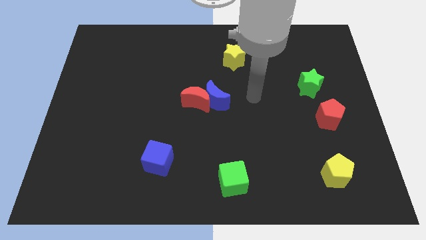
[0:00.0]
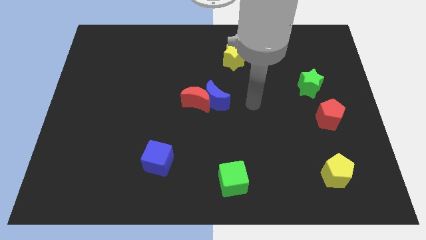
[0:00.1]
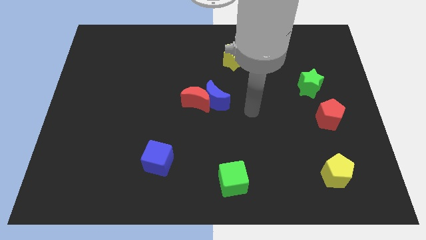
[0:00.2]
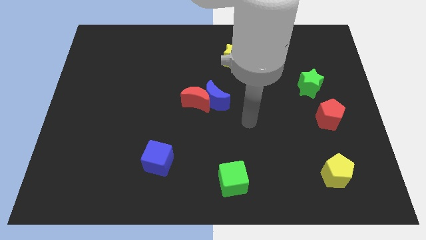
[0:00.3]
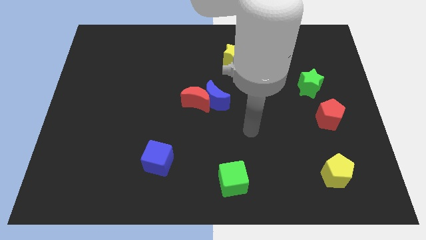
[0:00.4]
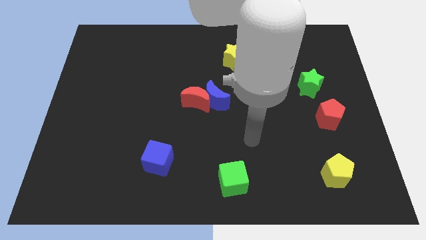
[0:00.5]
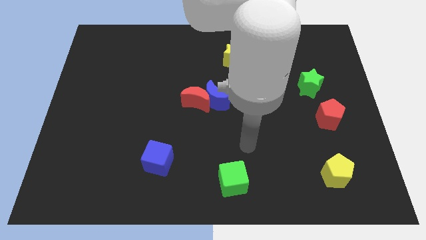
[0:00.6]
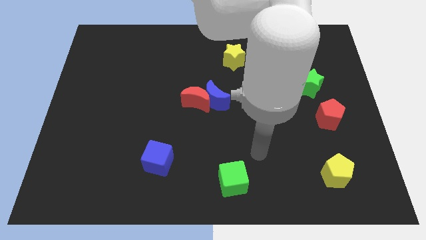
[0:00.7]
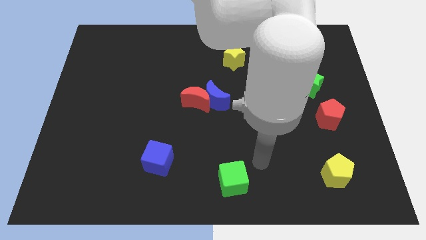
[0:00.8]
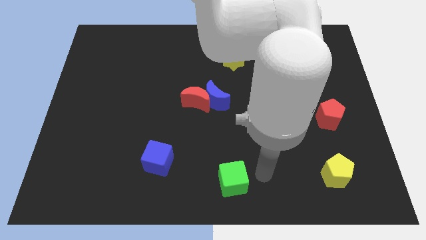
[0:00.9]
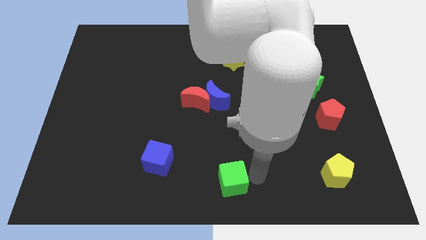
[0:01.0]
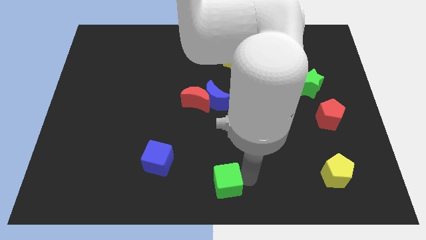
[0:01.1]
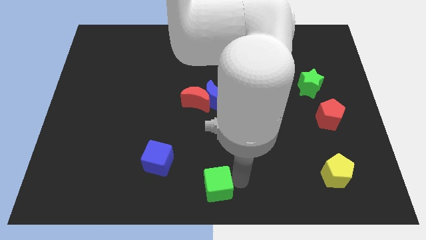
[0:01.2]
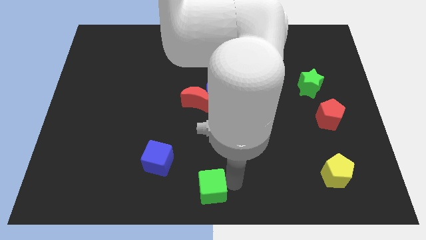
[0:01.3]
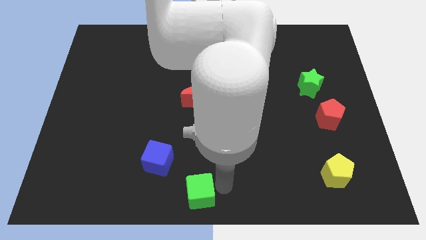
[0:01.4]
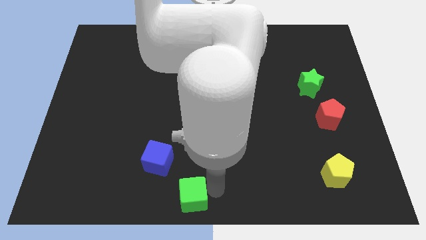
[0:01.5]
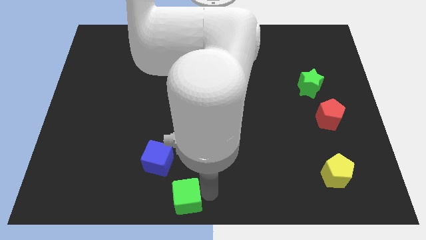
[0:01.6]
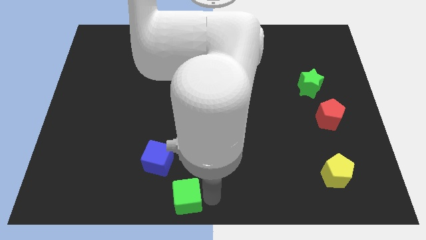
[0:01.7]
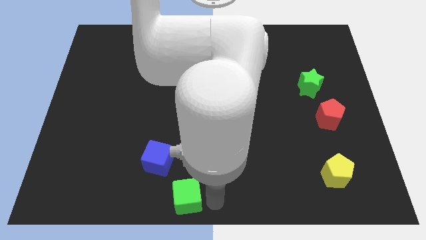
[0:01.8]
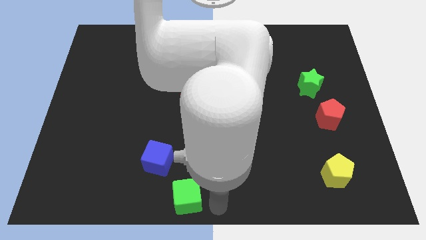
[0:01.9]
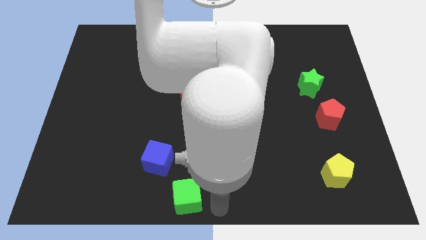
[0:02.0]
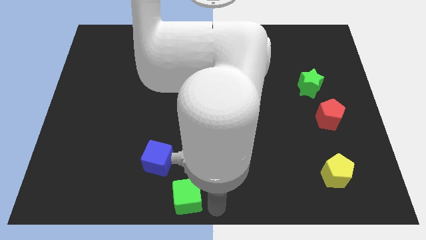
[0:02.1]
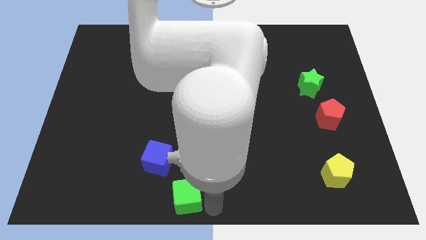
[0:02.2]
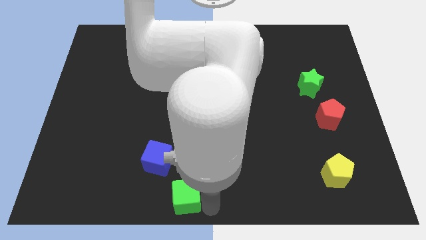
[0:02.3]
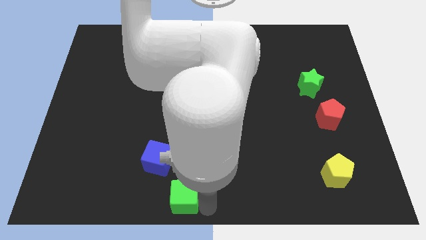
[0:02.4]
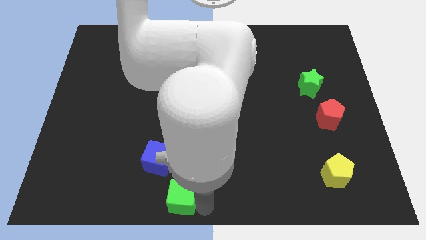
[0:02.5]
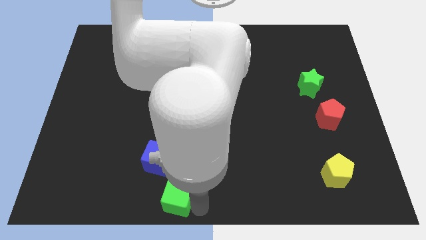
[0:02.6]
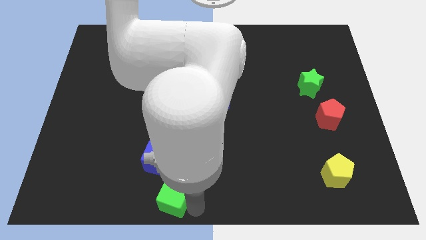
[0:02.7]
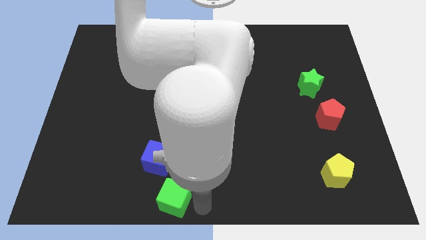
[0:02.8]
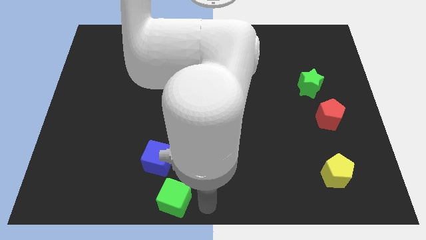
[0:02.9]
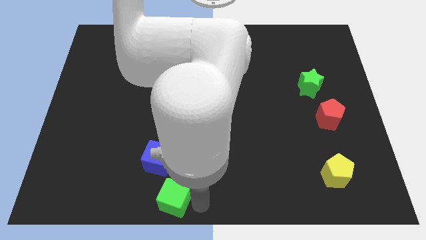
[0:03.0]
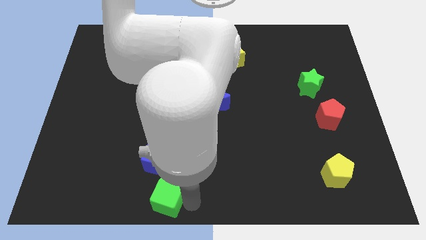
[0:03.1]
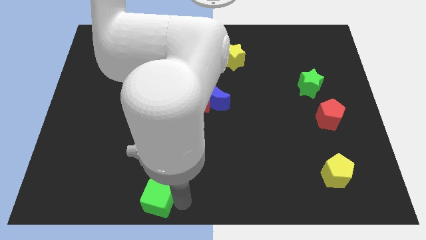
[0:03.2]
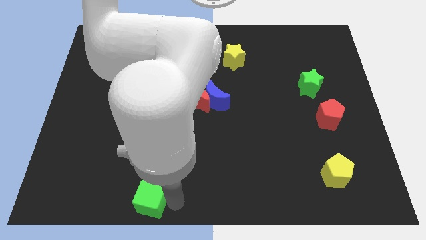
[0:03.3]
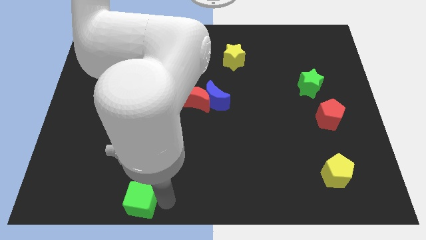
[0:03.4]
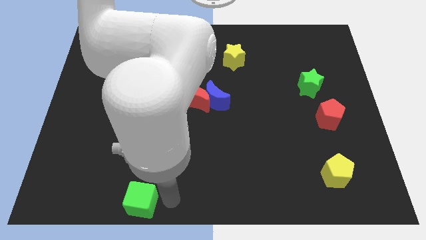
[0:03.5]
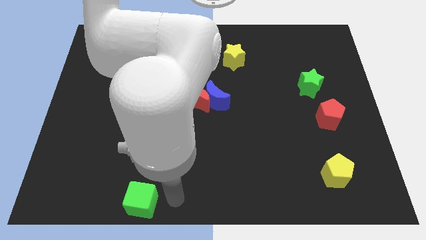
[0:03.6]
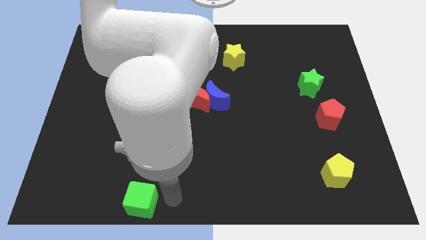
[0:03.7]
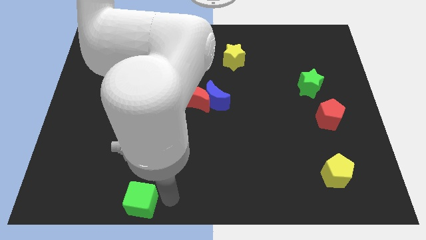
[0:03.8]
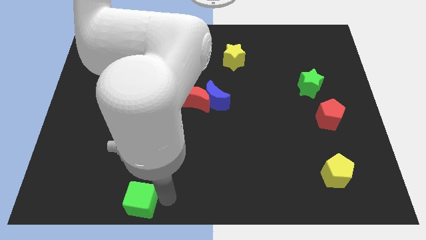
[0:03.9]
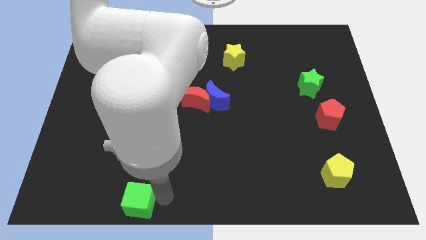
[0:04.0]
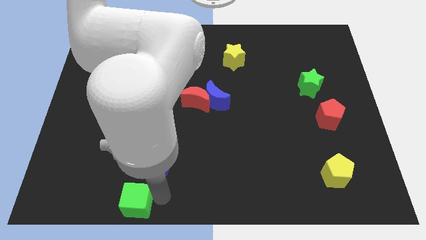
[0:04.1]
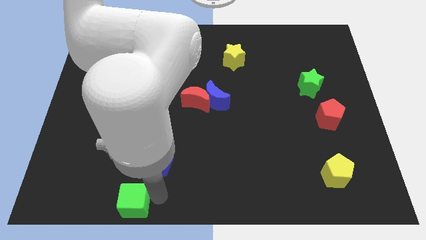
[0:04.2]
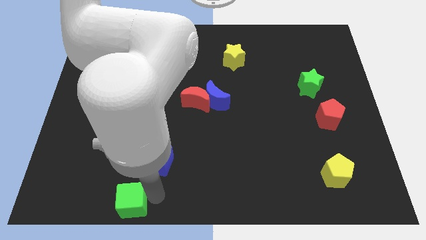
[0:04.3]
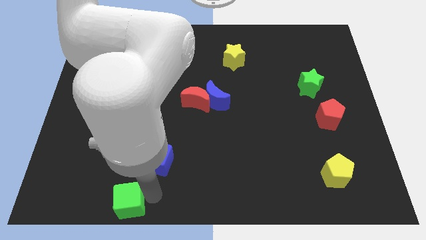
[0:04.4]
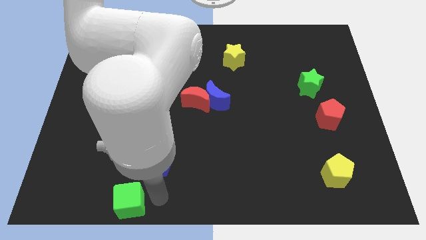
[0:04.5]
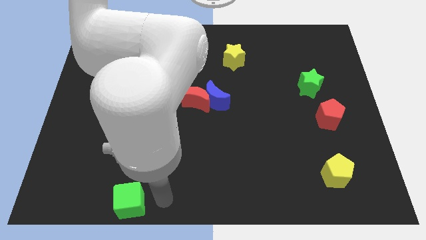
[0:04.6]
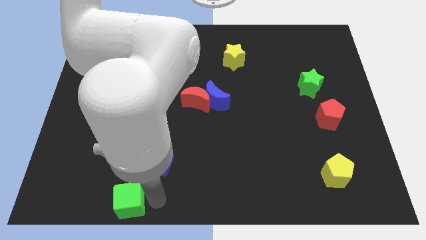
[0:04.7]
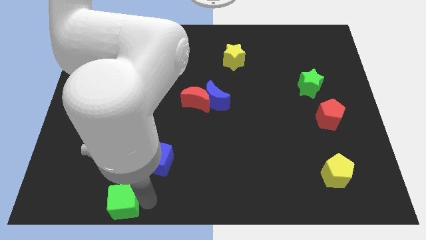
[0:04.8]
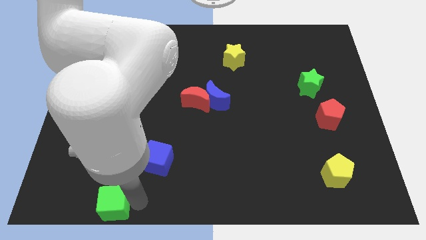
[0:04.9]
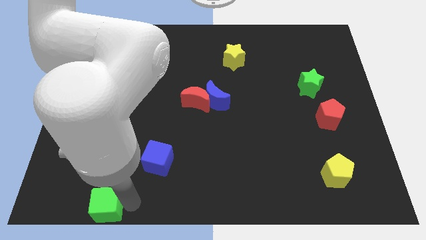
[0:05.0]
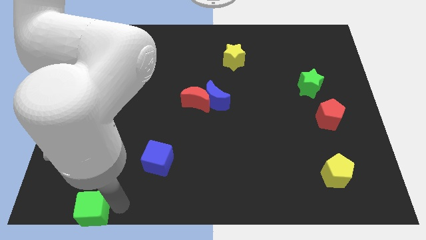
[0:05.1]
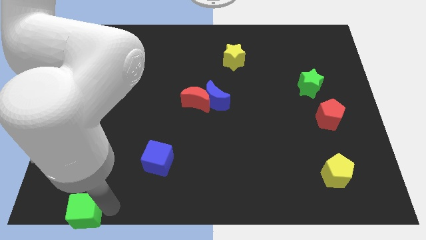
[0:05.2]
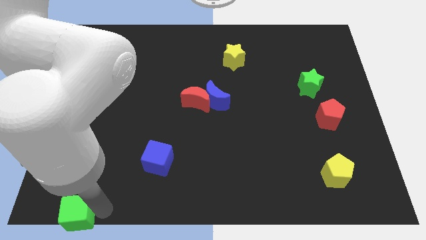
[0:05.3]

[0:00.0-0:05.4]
move the green cube to the lower left corner

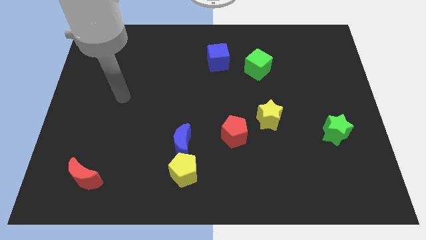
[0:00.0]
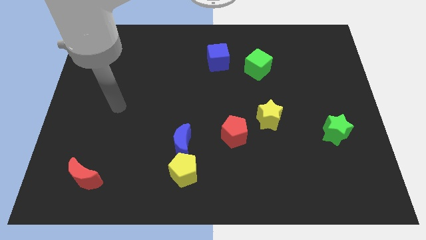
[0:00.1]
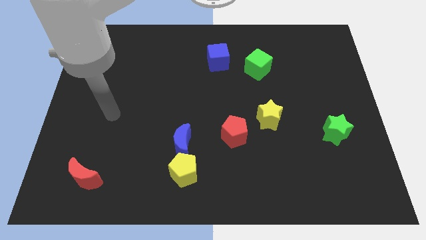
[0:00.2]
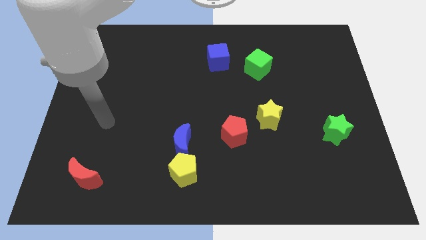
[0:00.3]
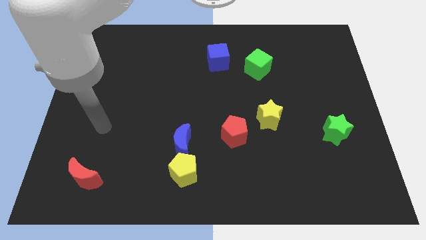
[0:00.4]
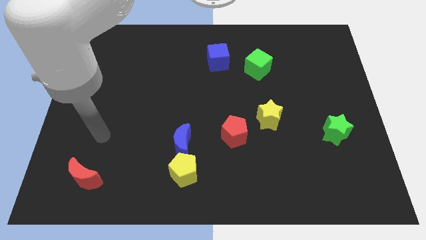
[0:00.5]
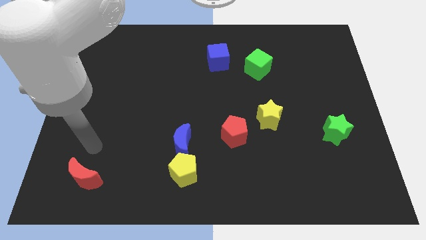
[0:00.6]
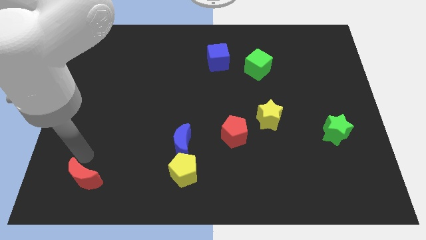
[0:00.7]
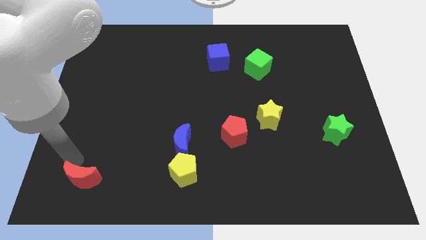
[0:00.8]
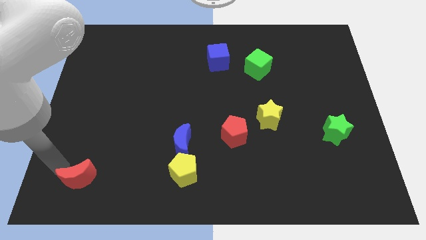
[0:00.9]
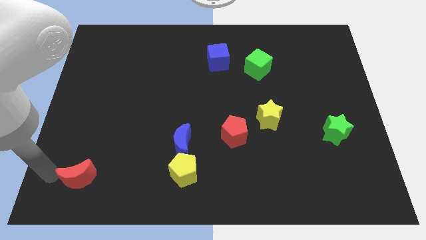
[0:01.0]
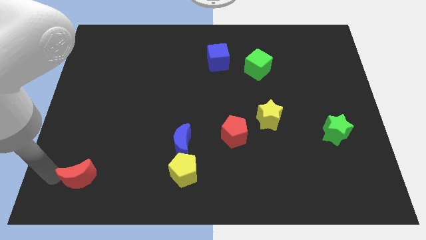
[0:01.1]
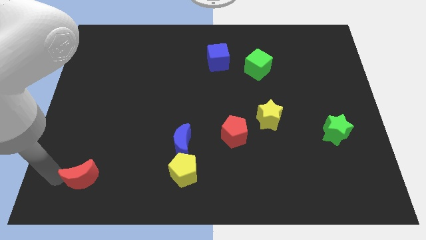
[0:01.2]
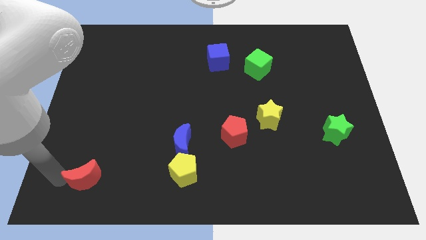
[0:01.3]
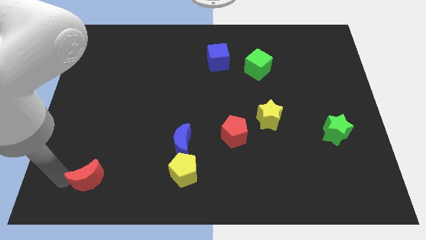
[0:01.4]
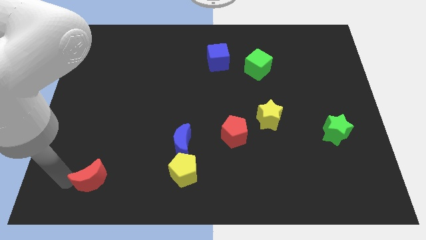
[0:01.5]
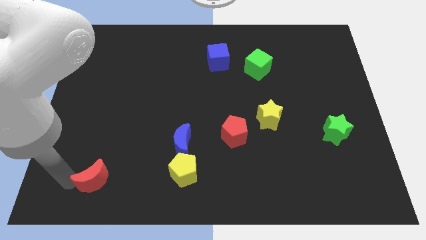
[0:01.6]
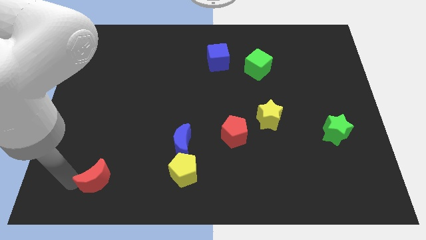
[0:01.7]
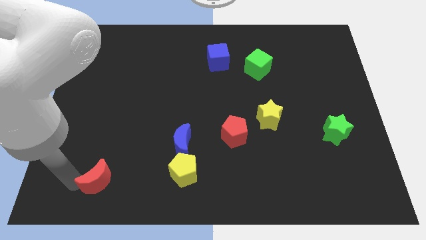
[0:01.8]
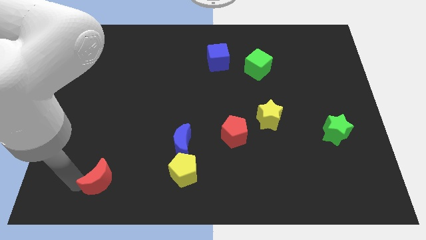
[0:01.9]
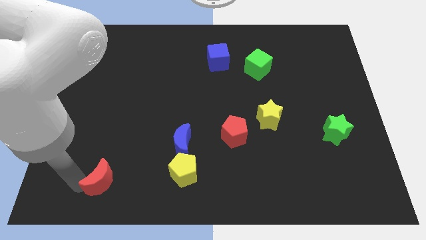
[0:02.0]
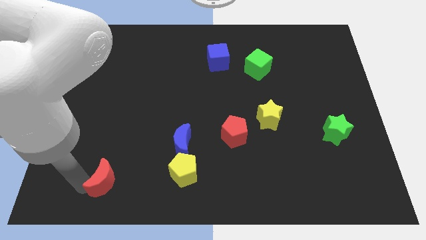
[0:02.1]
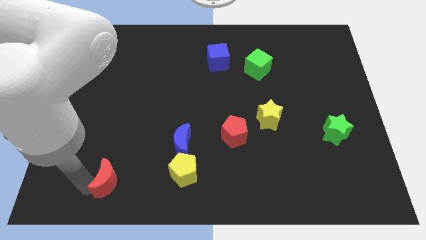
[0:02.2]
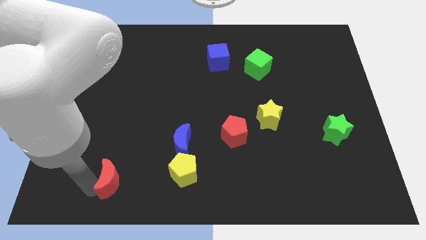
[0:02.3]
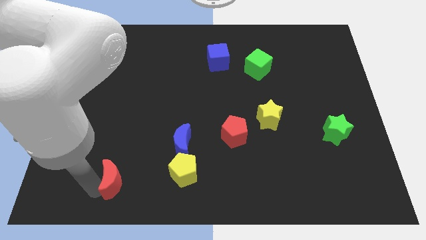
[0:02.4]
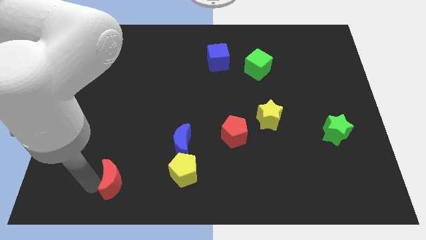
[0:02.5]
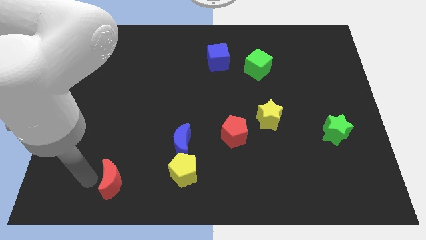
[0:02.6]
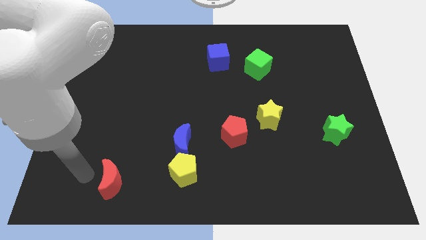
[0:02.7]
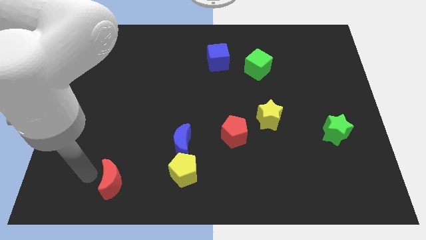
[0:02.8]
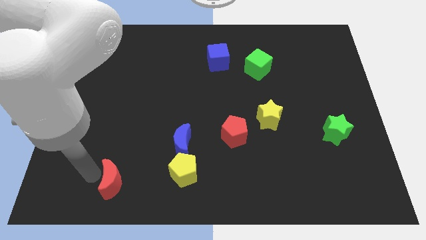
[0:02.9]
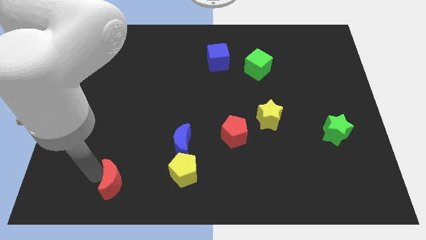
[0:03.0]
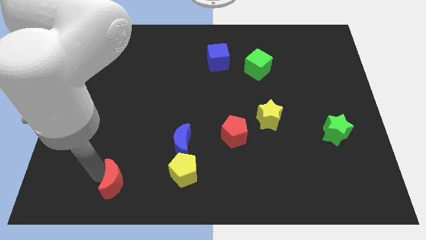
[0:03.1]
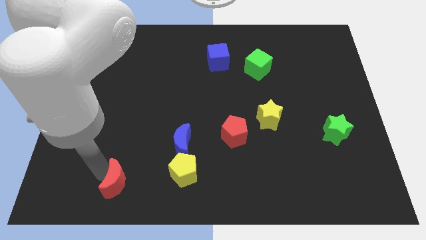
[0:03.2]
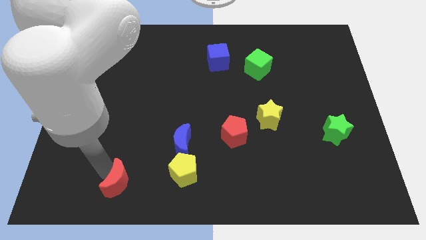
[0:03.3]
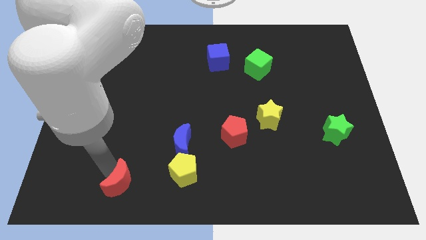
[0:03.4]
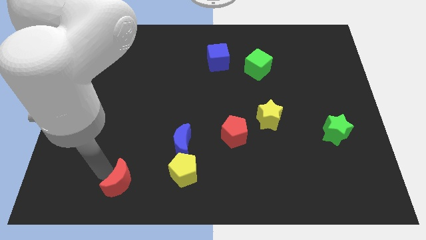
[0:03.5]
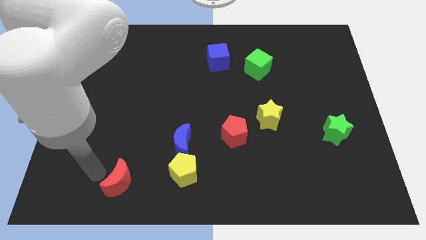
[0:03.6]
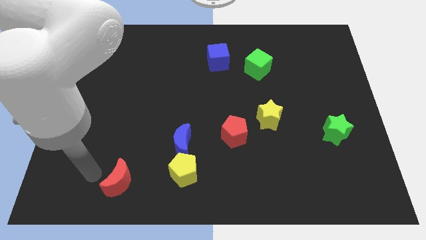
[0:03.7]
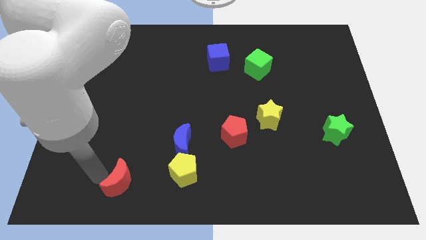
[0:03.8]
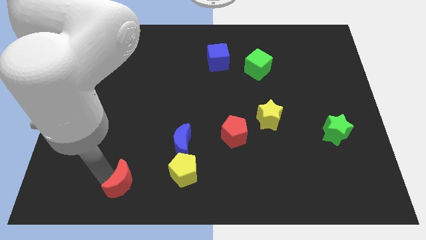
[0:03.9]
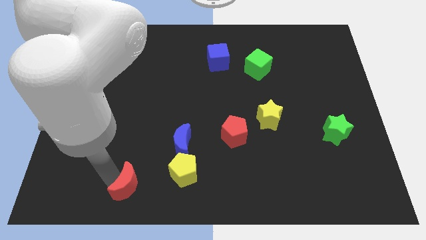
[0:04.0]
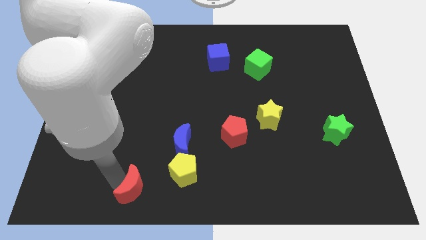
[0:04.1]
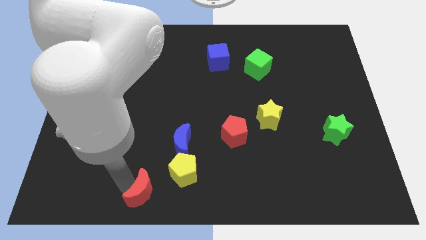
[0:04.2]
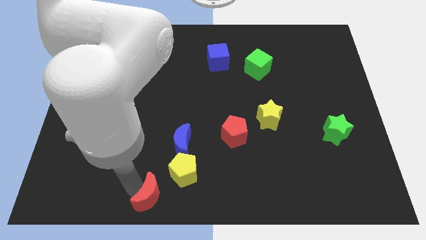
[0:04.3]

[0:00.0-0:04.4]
slide the red moon to the bottom
